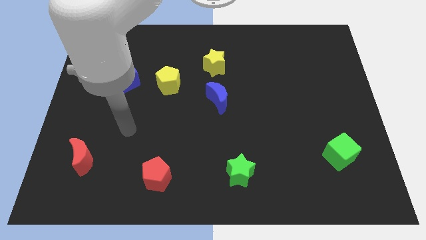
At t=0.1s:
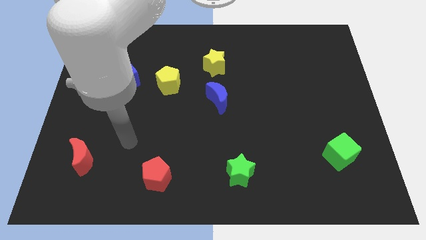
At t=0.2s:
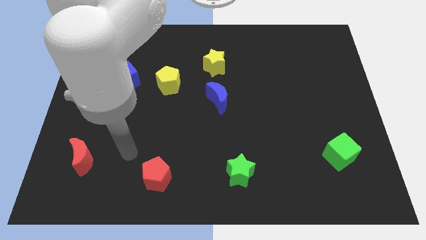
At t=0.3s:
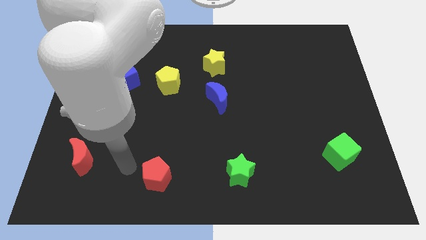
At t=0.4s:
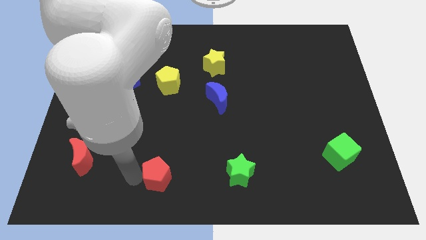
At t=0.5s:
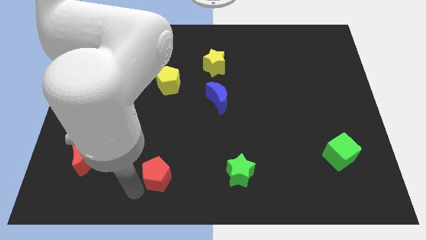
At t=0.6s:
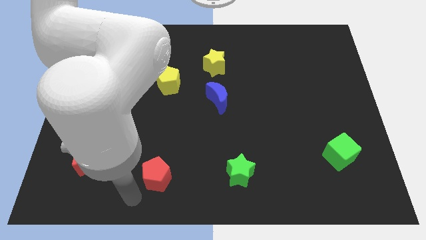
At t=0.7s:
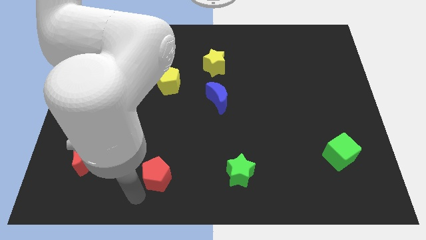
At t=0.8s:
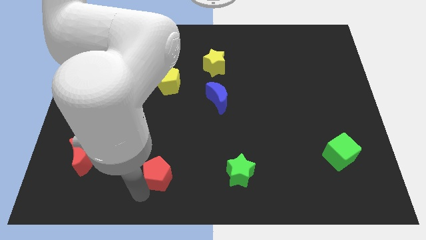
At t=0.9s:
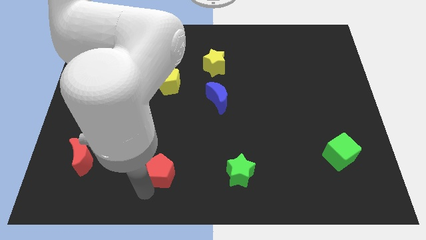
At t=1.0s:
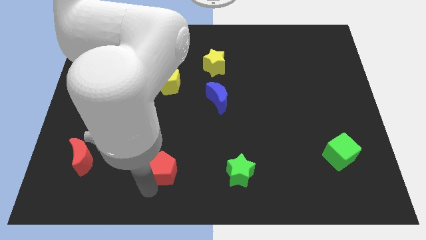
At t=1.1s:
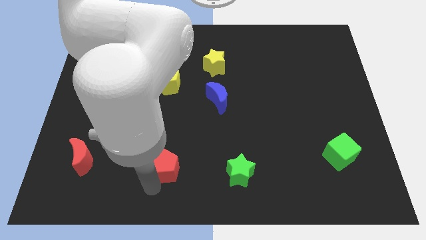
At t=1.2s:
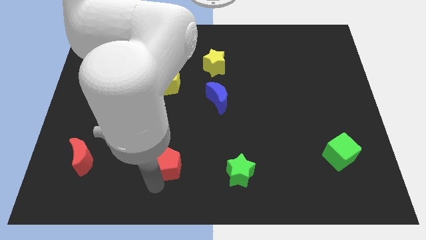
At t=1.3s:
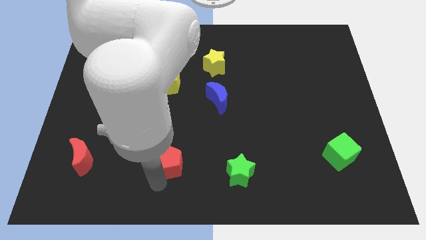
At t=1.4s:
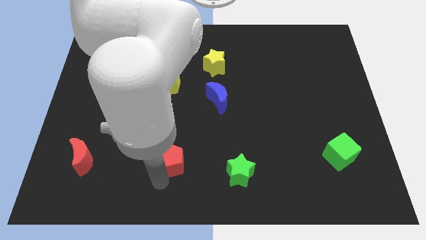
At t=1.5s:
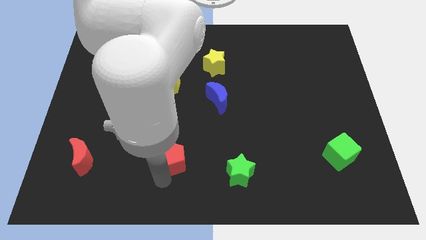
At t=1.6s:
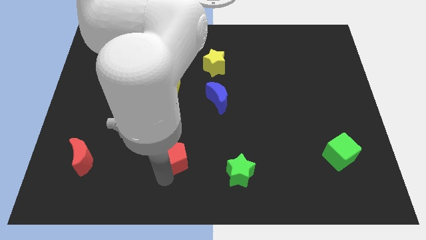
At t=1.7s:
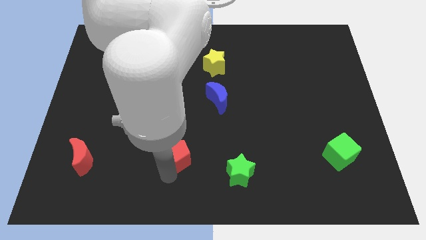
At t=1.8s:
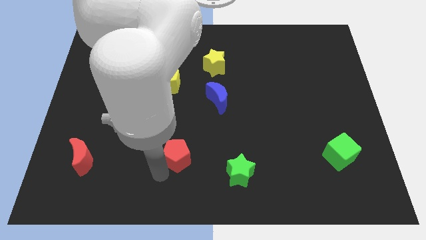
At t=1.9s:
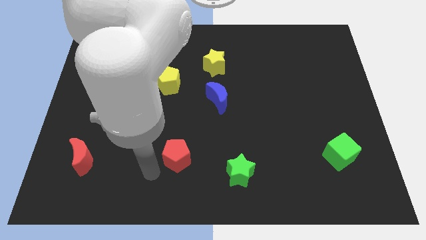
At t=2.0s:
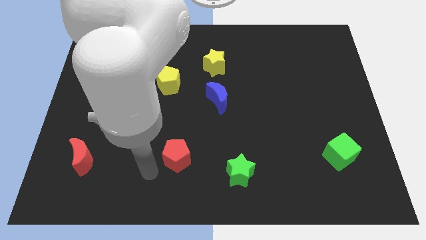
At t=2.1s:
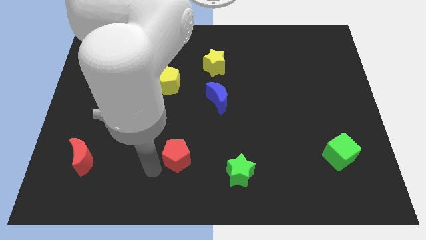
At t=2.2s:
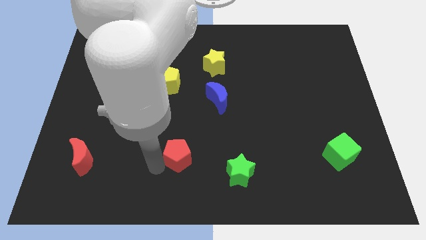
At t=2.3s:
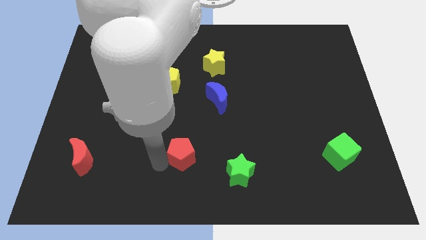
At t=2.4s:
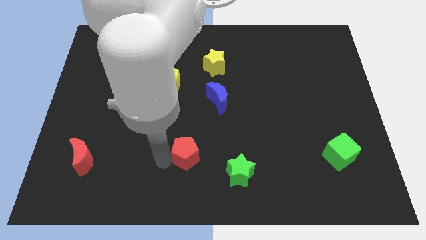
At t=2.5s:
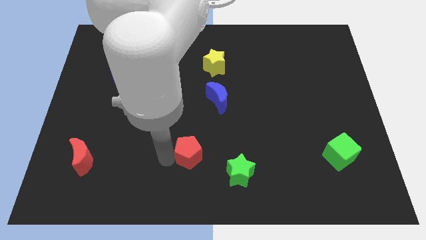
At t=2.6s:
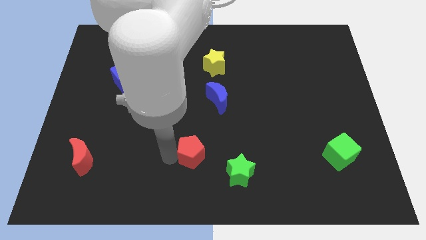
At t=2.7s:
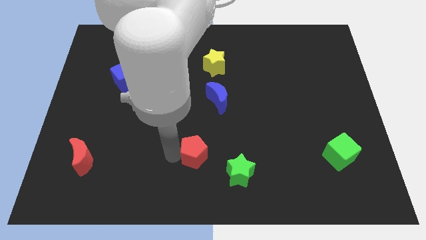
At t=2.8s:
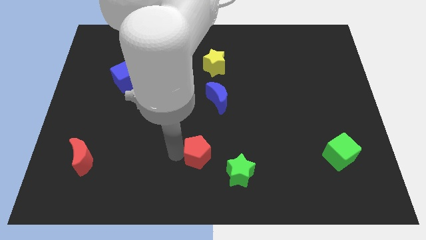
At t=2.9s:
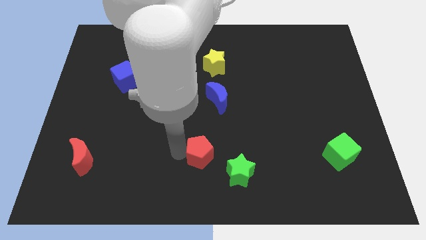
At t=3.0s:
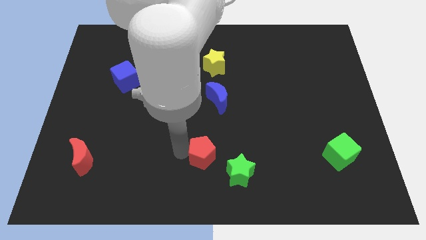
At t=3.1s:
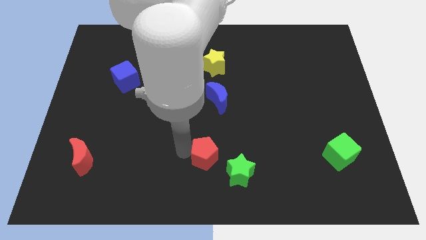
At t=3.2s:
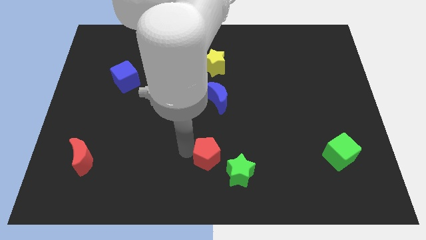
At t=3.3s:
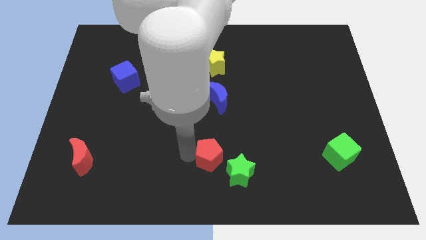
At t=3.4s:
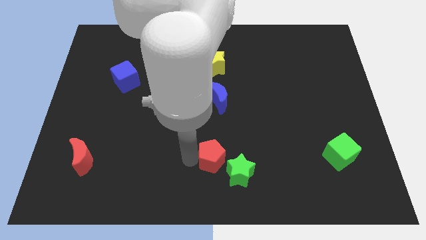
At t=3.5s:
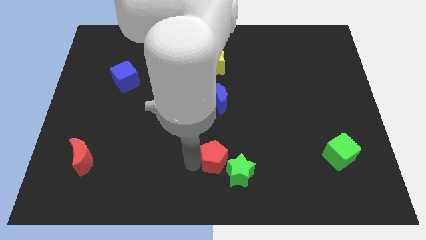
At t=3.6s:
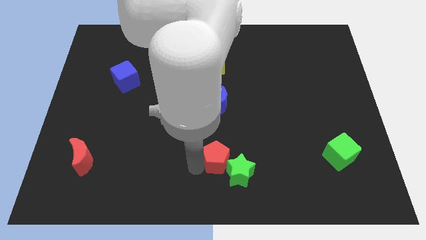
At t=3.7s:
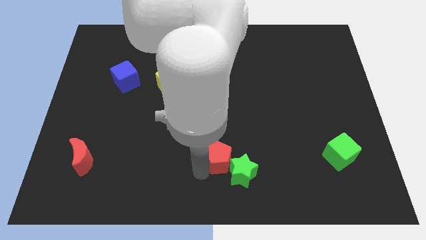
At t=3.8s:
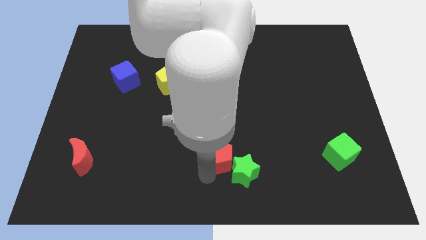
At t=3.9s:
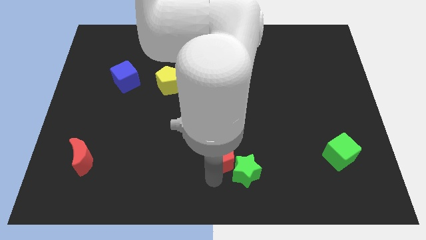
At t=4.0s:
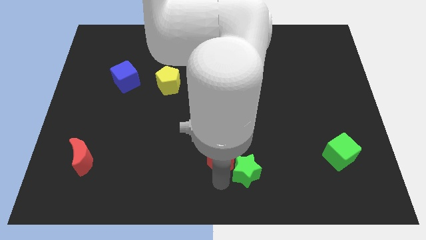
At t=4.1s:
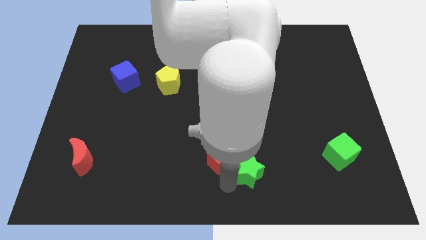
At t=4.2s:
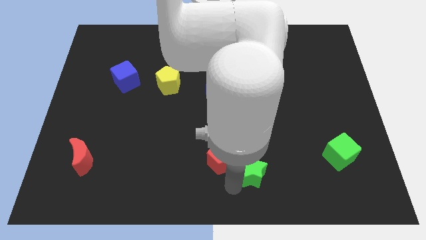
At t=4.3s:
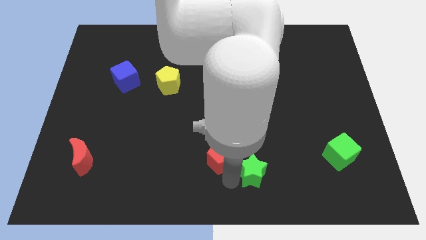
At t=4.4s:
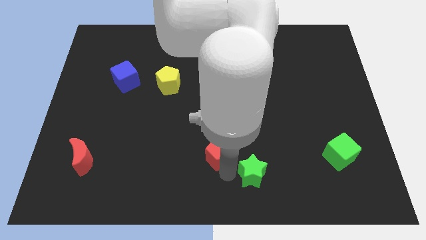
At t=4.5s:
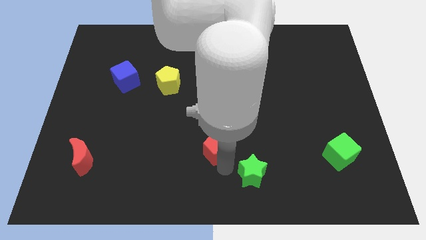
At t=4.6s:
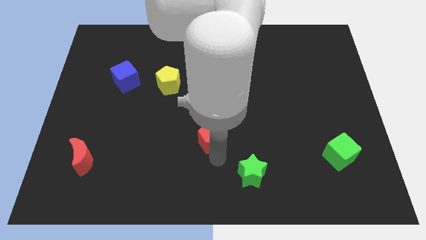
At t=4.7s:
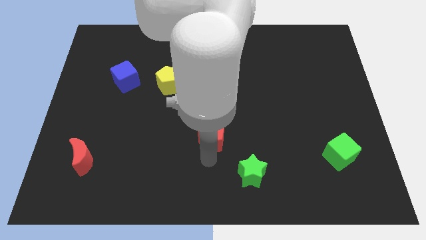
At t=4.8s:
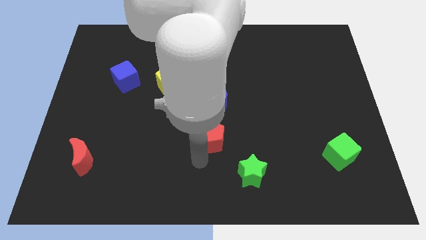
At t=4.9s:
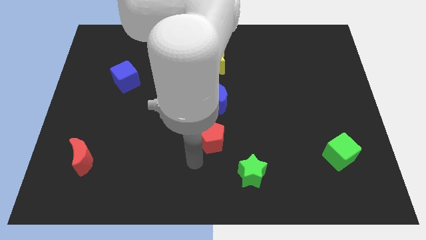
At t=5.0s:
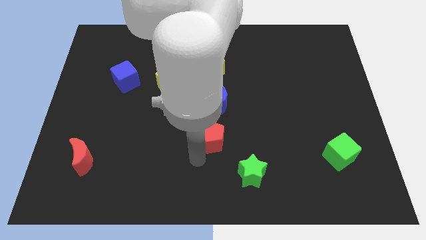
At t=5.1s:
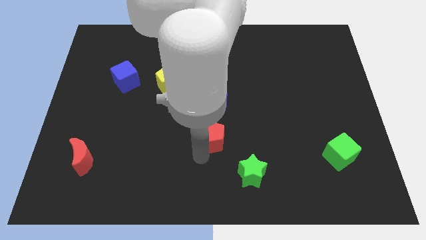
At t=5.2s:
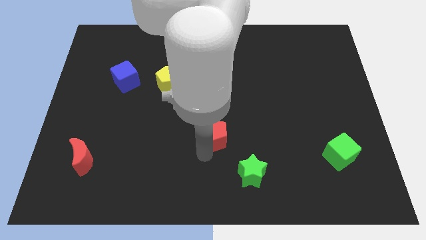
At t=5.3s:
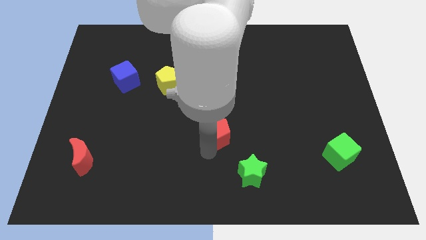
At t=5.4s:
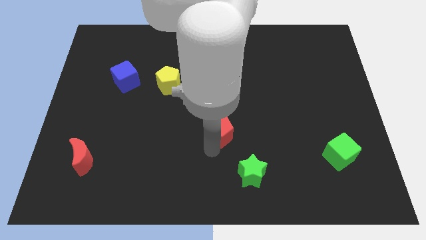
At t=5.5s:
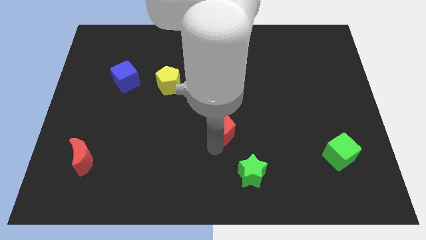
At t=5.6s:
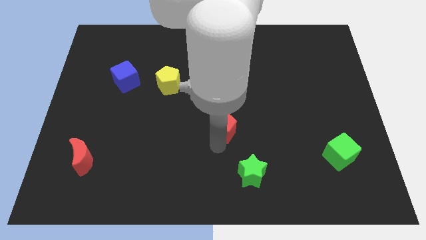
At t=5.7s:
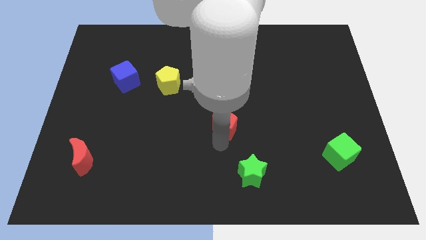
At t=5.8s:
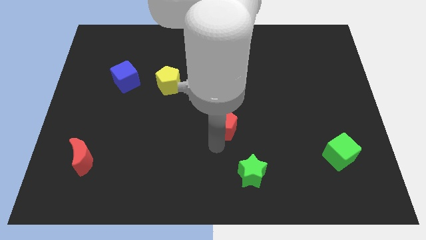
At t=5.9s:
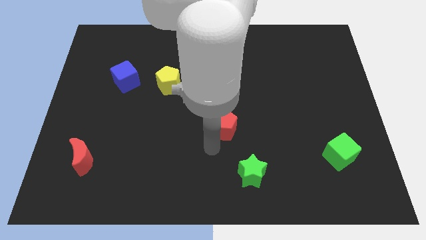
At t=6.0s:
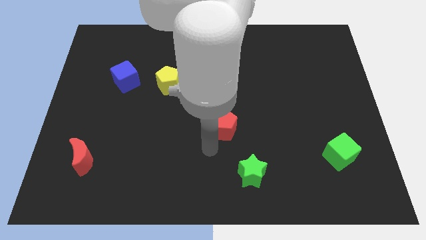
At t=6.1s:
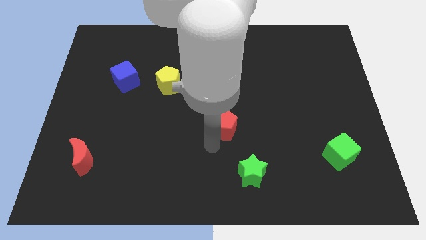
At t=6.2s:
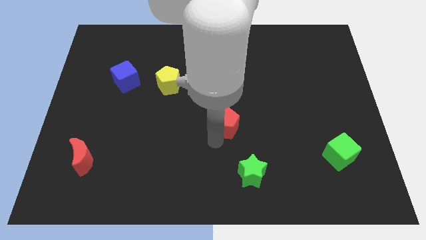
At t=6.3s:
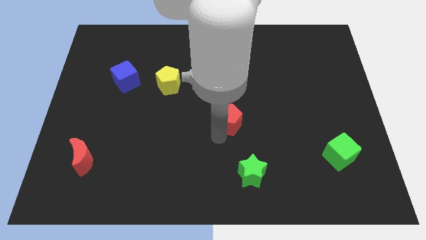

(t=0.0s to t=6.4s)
push the red pentagon upwards and to the right diagonally

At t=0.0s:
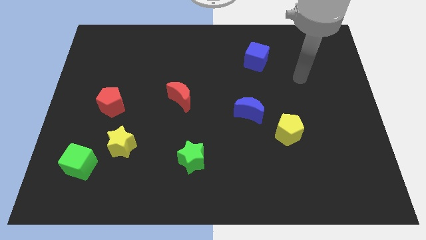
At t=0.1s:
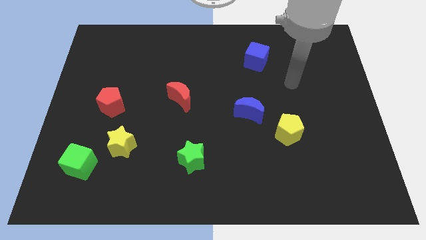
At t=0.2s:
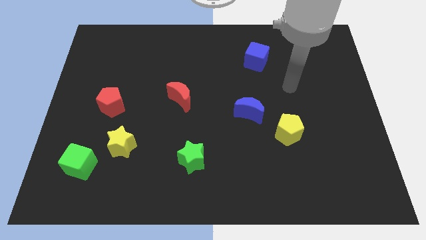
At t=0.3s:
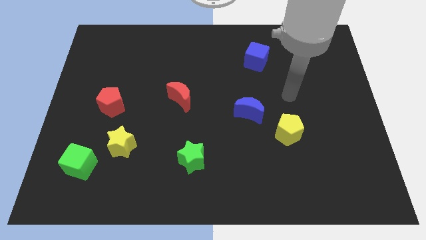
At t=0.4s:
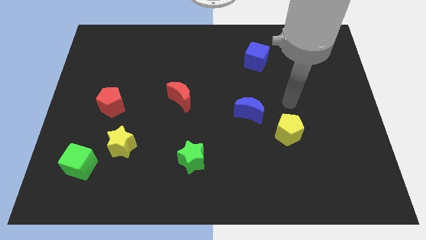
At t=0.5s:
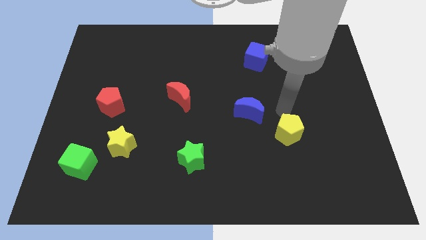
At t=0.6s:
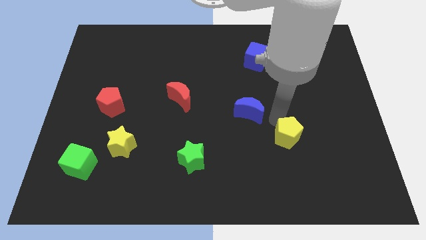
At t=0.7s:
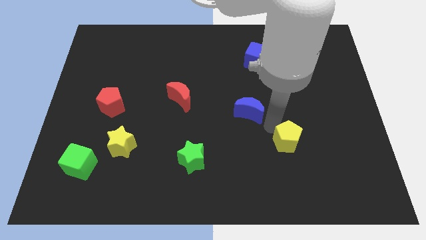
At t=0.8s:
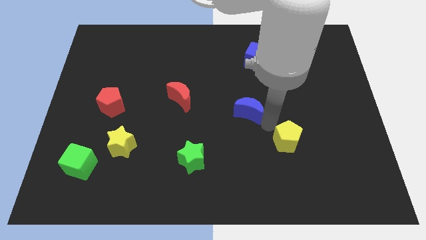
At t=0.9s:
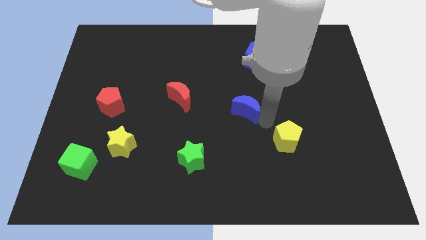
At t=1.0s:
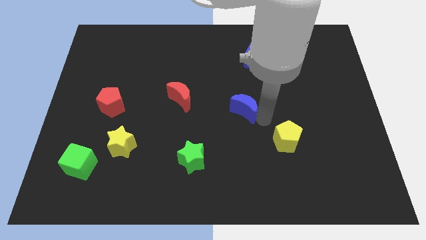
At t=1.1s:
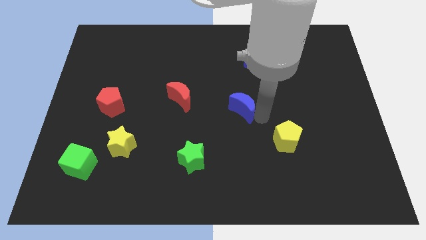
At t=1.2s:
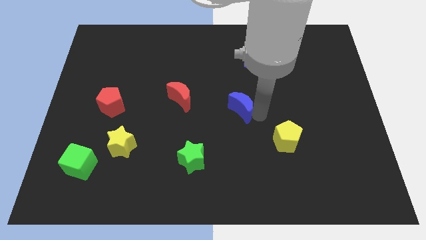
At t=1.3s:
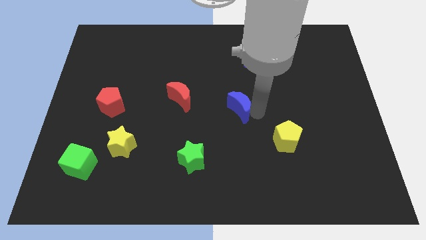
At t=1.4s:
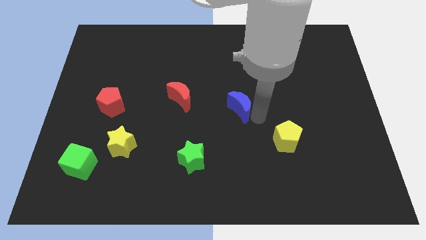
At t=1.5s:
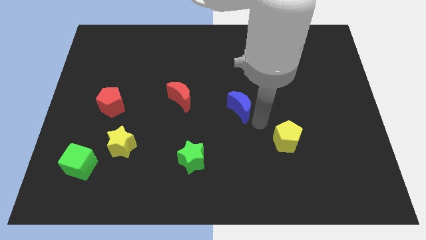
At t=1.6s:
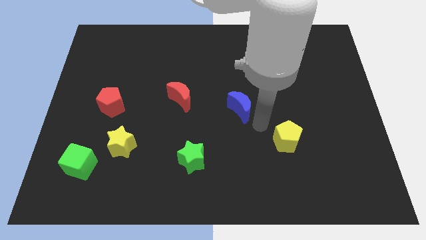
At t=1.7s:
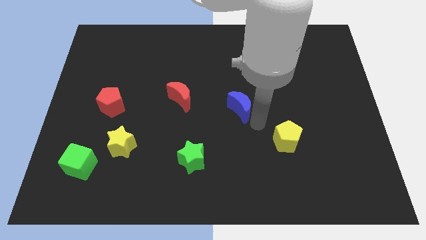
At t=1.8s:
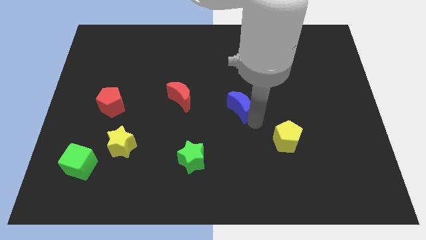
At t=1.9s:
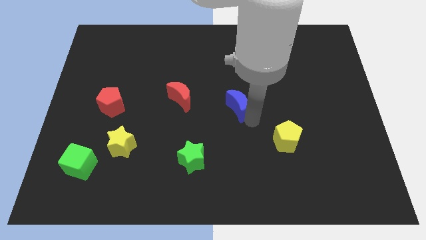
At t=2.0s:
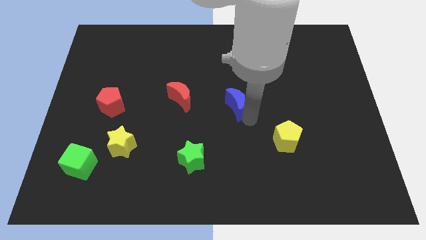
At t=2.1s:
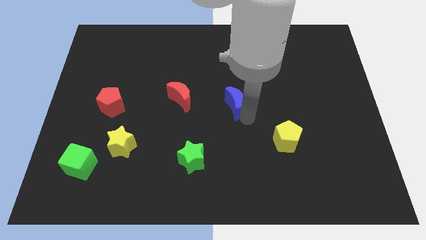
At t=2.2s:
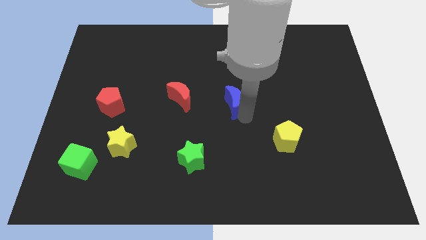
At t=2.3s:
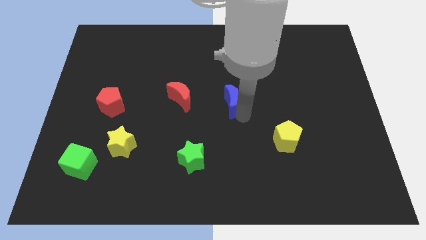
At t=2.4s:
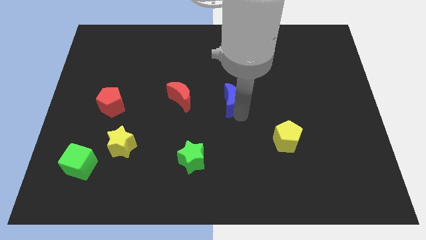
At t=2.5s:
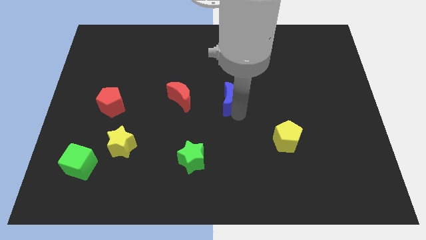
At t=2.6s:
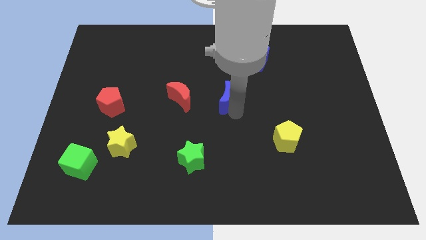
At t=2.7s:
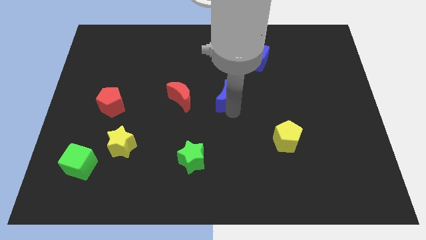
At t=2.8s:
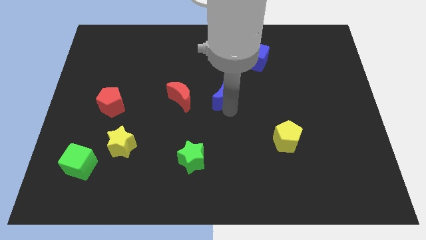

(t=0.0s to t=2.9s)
slightly slide the blue moon upwards and left diagonally
